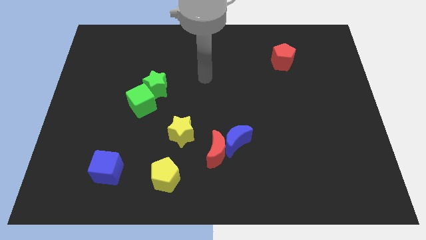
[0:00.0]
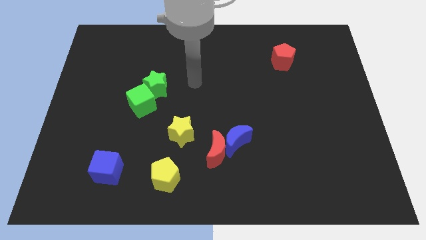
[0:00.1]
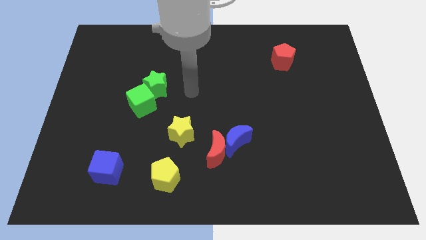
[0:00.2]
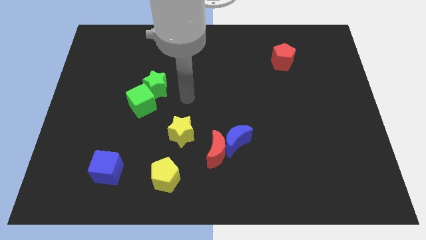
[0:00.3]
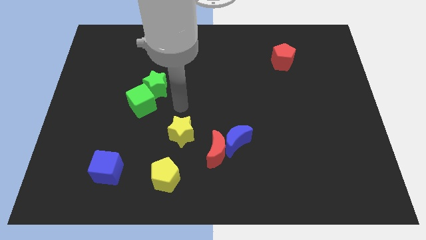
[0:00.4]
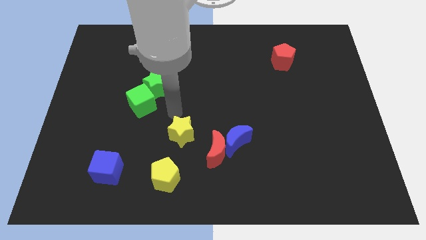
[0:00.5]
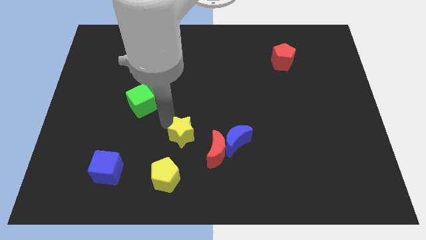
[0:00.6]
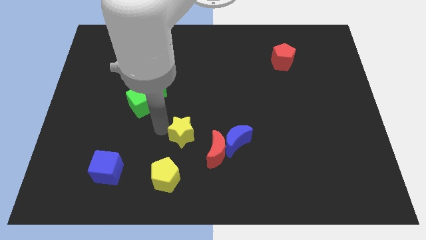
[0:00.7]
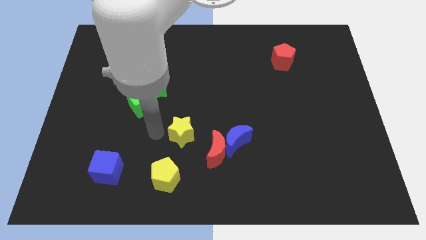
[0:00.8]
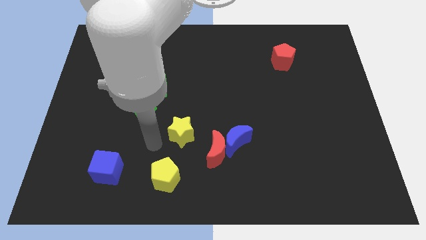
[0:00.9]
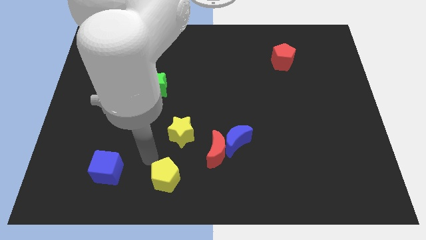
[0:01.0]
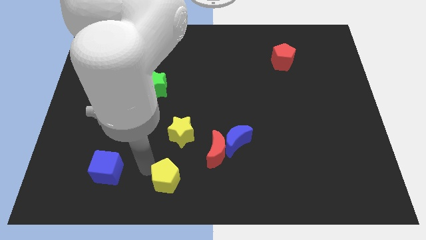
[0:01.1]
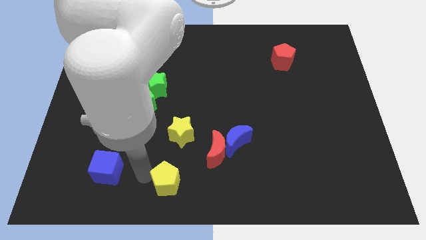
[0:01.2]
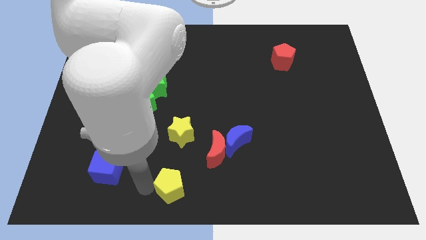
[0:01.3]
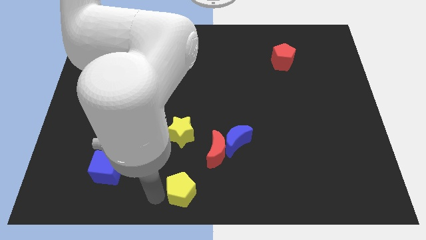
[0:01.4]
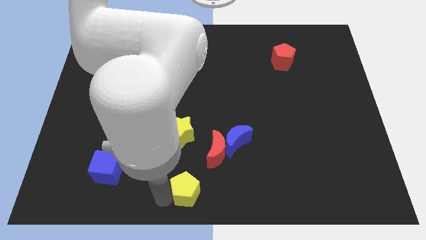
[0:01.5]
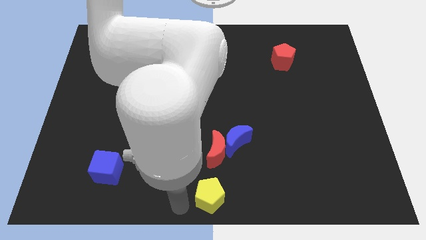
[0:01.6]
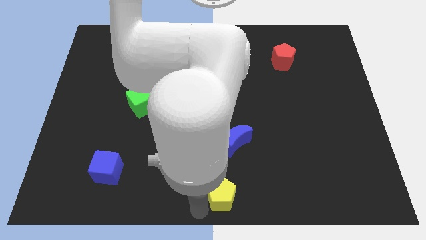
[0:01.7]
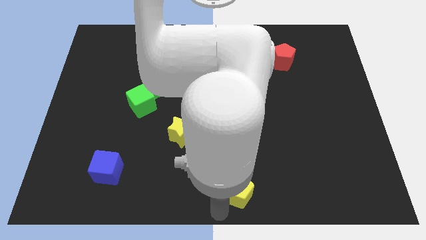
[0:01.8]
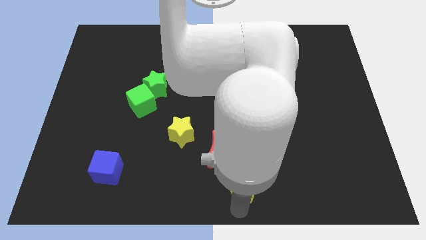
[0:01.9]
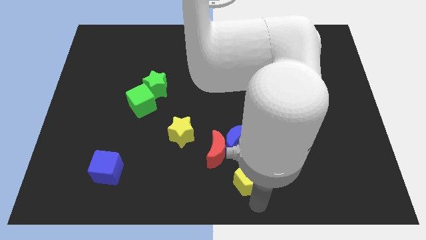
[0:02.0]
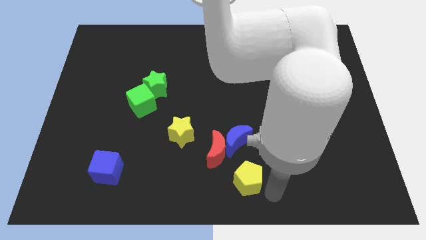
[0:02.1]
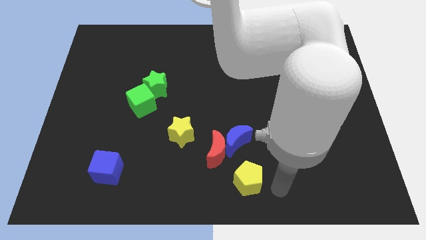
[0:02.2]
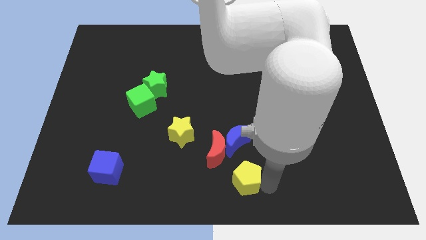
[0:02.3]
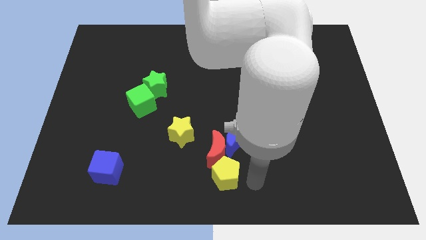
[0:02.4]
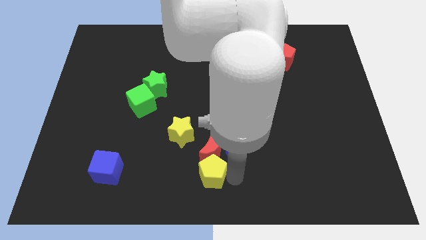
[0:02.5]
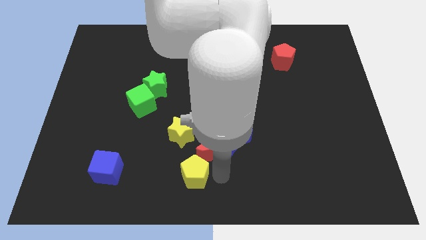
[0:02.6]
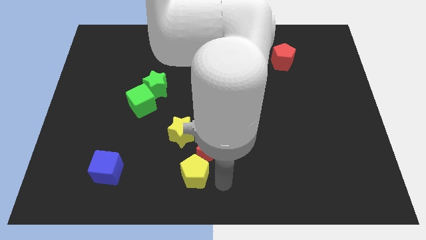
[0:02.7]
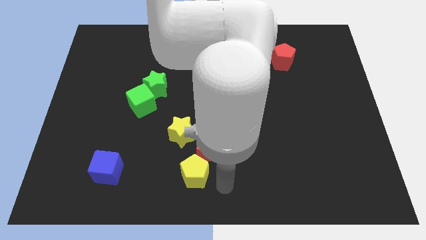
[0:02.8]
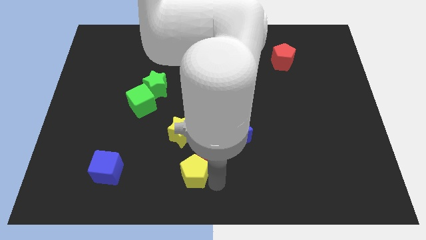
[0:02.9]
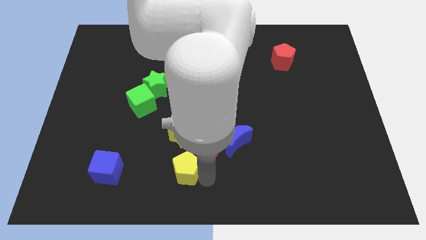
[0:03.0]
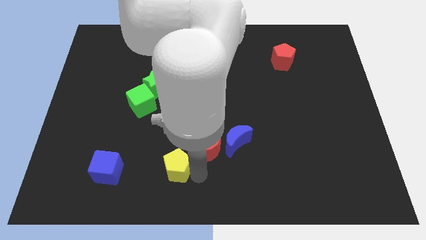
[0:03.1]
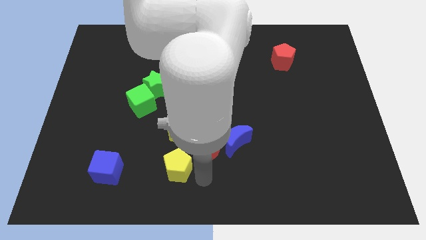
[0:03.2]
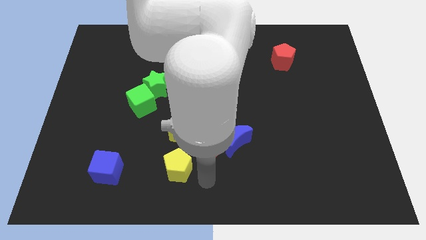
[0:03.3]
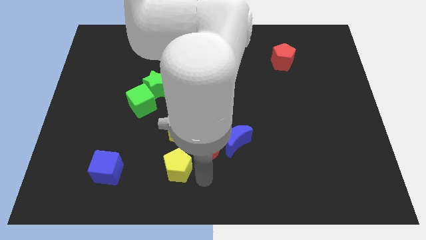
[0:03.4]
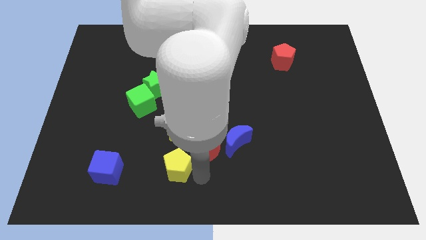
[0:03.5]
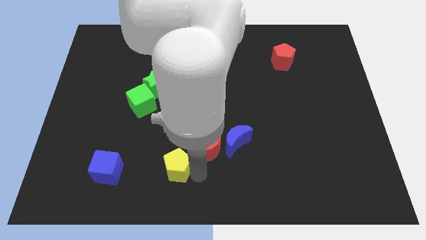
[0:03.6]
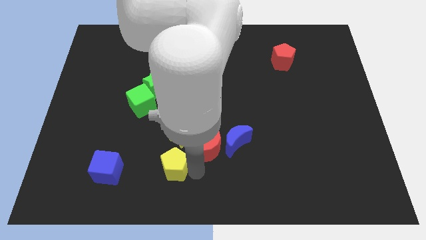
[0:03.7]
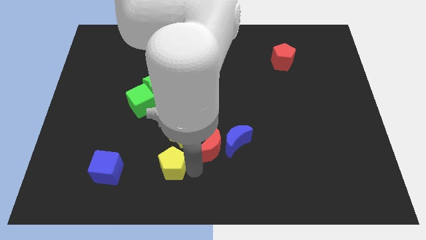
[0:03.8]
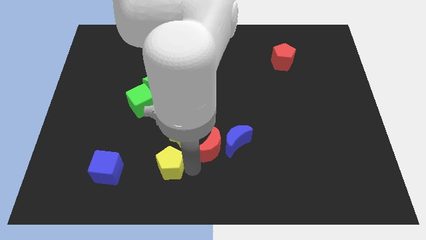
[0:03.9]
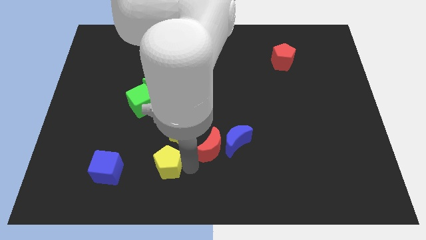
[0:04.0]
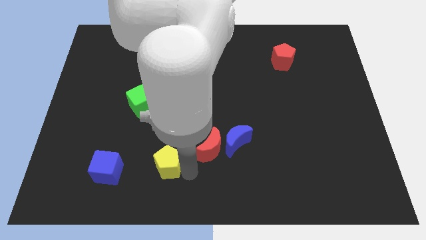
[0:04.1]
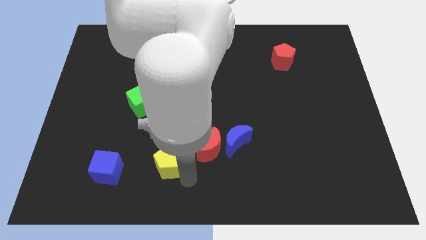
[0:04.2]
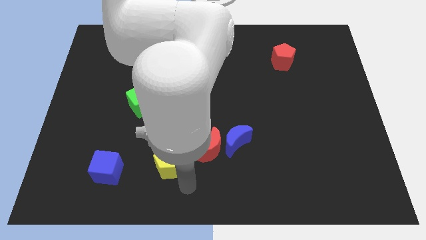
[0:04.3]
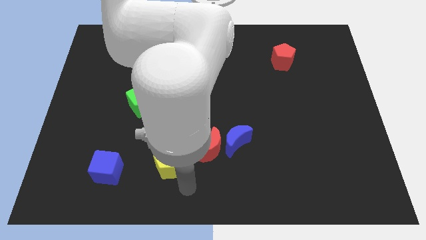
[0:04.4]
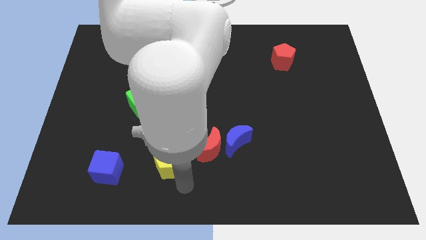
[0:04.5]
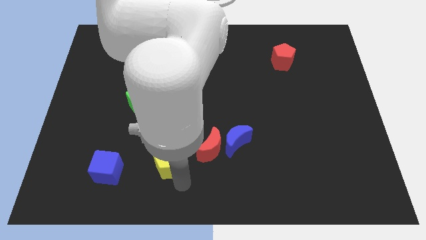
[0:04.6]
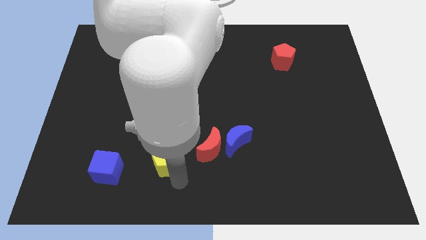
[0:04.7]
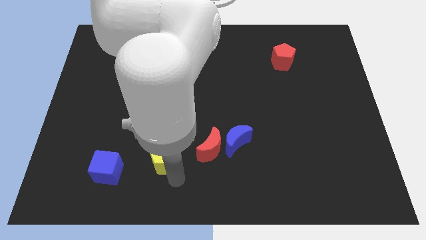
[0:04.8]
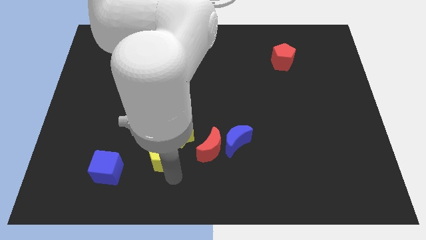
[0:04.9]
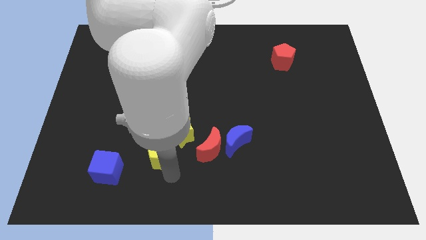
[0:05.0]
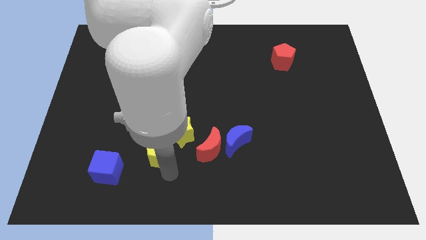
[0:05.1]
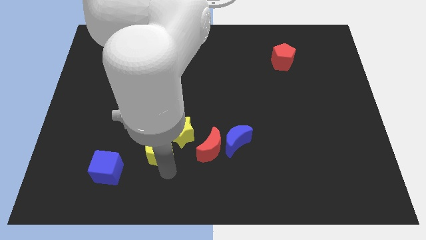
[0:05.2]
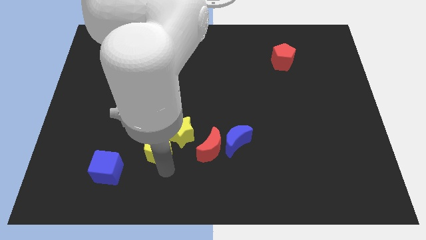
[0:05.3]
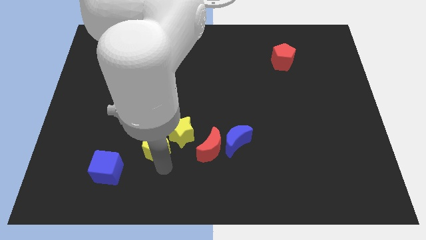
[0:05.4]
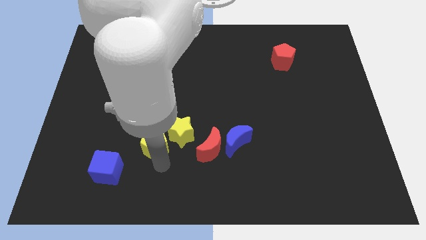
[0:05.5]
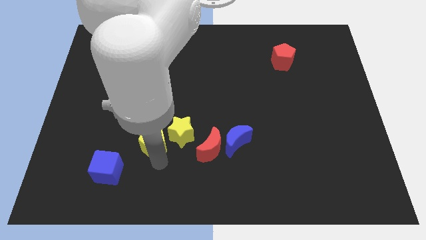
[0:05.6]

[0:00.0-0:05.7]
slide the yellow pentagon below the green star

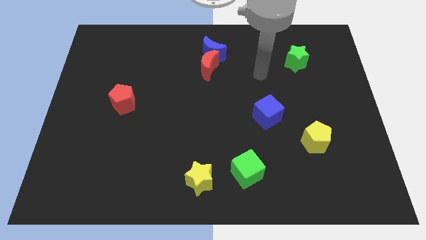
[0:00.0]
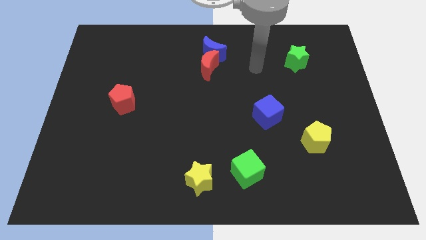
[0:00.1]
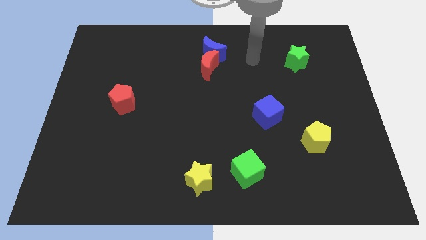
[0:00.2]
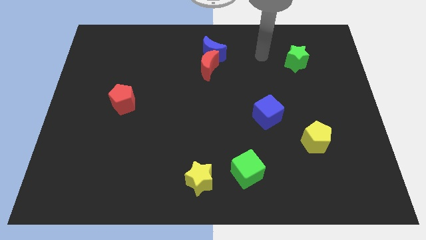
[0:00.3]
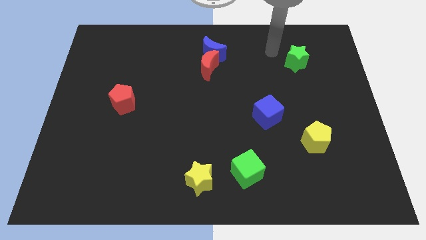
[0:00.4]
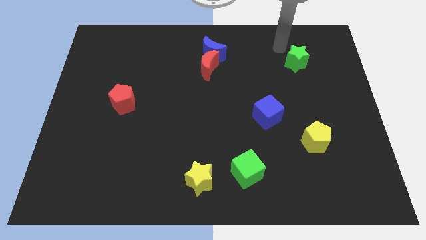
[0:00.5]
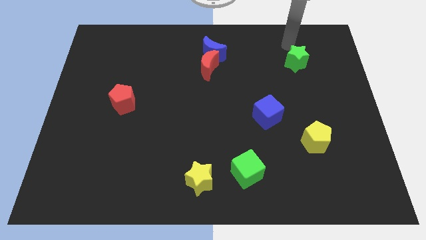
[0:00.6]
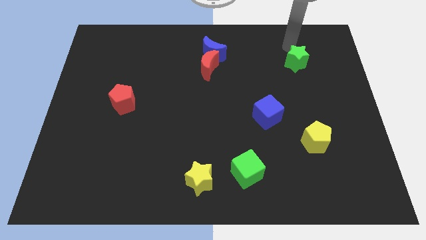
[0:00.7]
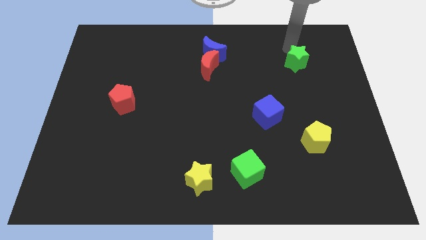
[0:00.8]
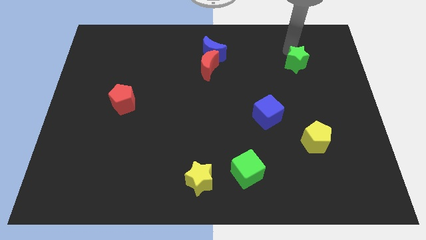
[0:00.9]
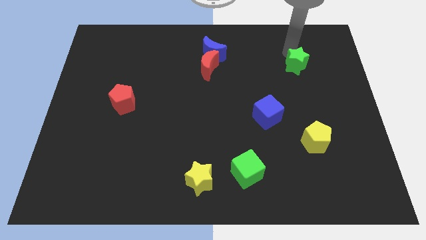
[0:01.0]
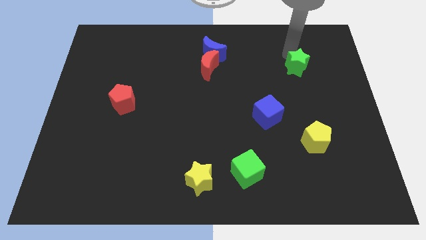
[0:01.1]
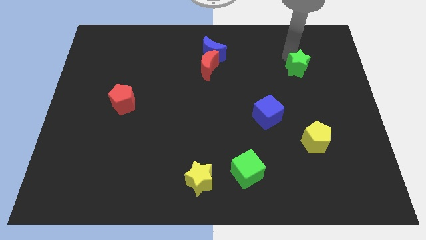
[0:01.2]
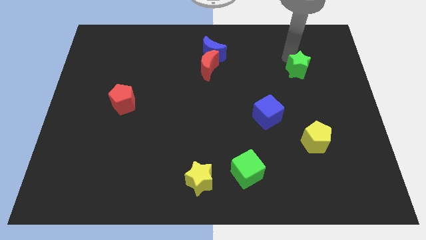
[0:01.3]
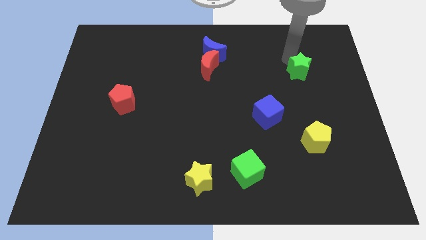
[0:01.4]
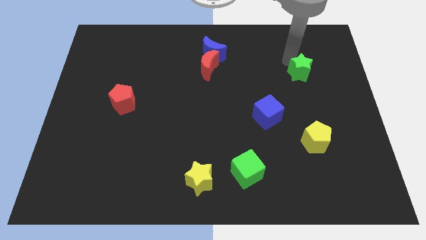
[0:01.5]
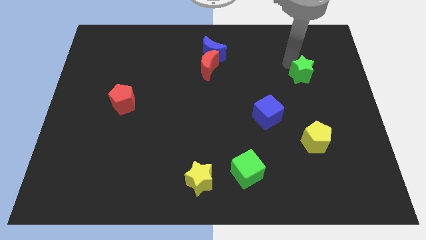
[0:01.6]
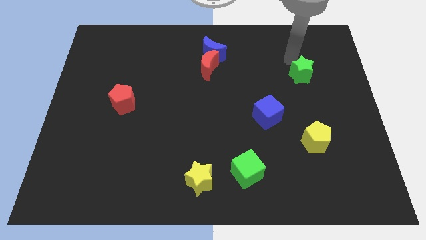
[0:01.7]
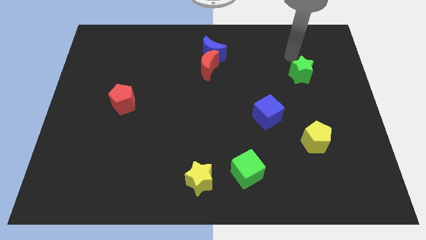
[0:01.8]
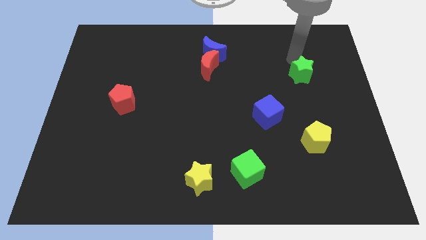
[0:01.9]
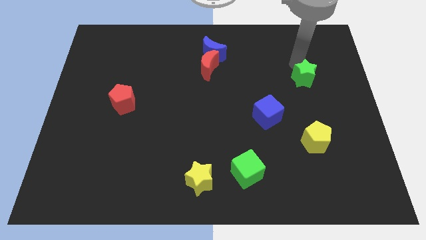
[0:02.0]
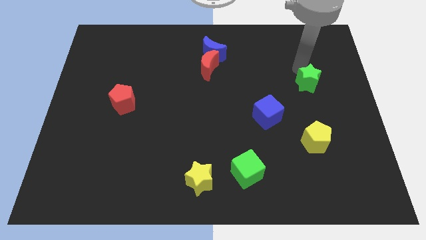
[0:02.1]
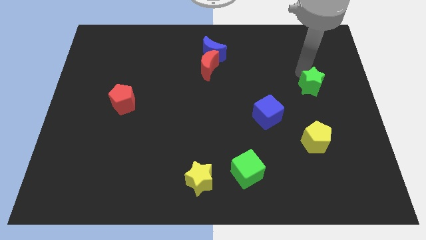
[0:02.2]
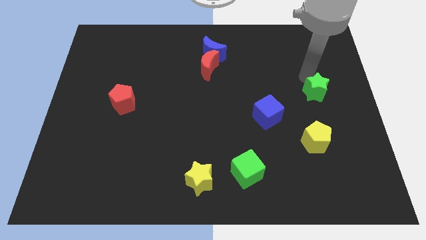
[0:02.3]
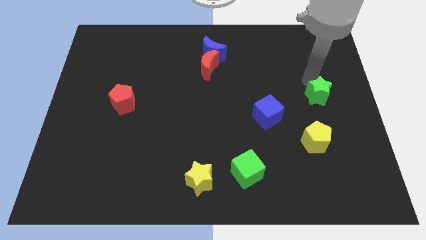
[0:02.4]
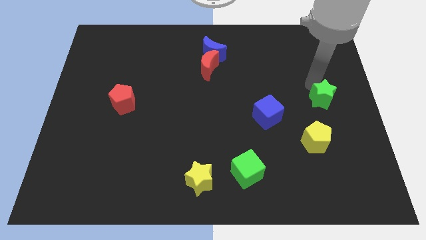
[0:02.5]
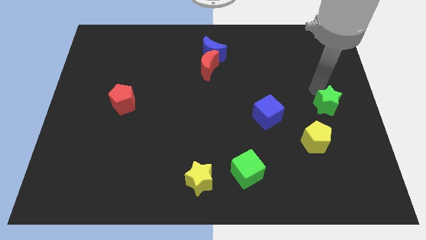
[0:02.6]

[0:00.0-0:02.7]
move the green star diagonally up and to the right of the yellow pentagon
